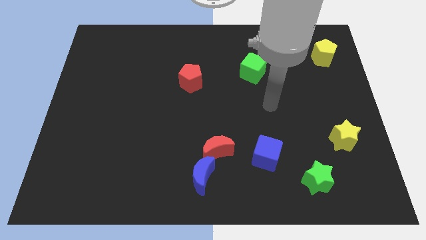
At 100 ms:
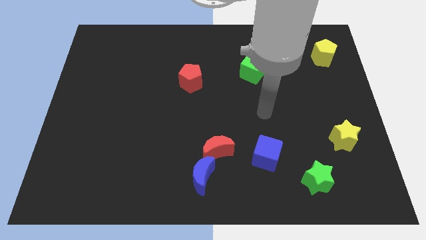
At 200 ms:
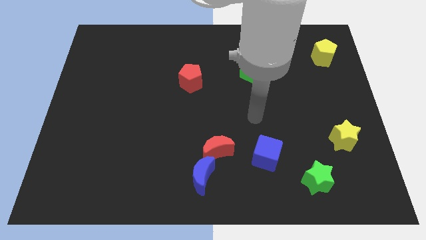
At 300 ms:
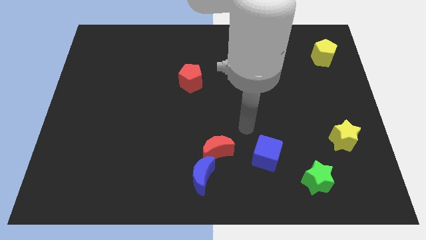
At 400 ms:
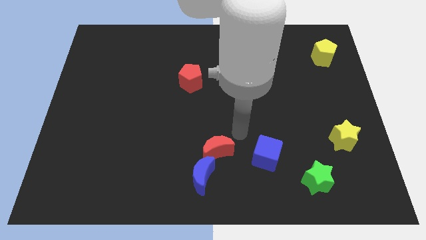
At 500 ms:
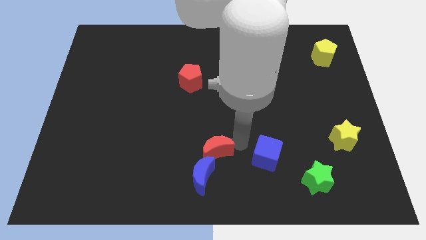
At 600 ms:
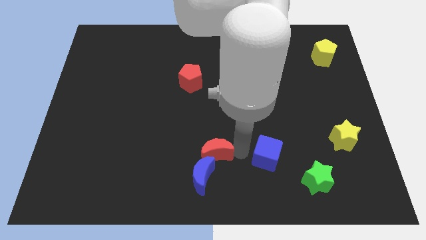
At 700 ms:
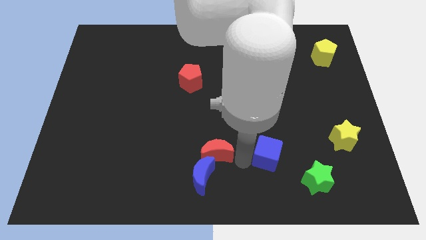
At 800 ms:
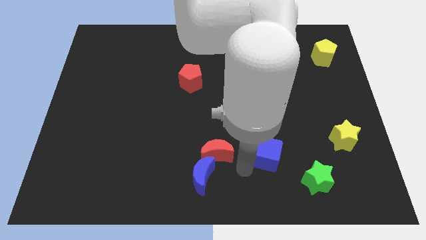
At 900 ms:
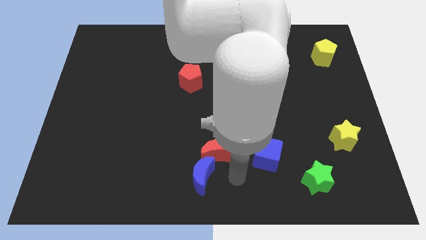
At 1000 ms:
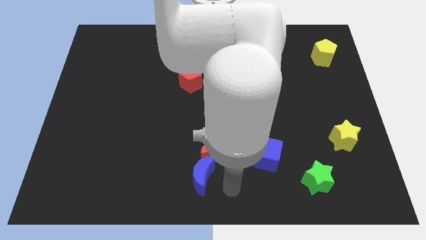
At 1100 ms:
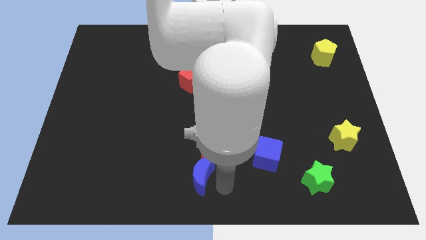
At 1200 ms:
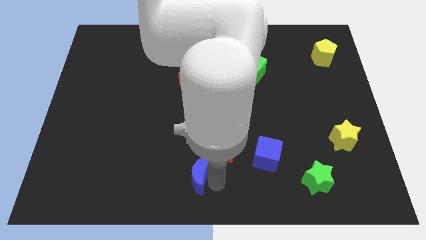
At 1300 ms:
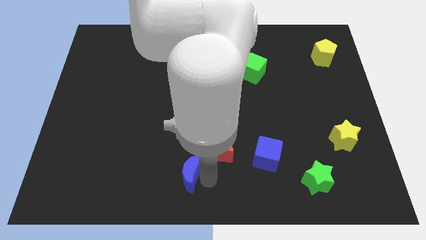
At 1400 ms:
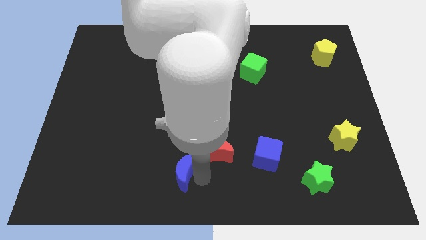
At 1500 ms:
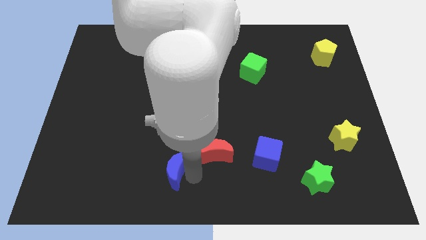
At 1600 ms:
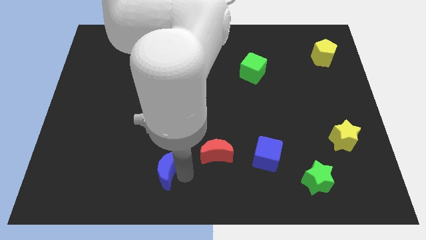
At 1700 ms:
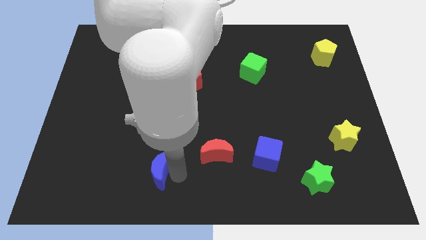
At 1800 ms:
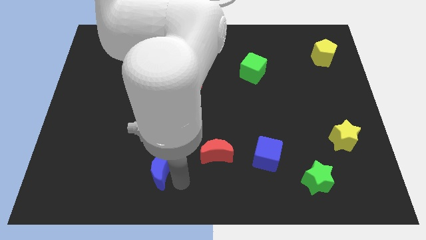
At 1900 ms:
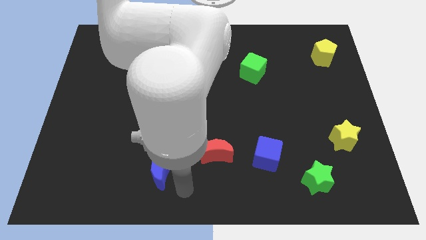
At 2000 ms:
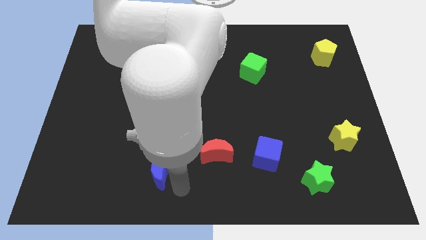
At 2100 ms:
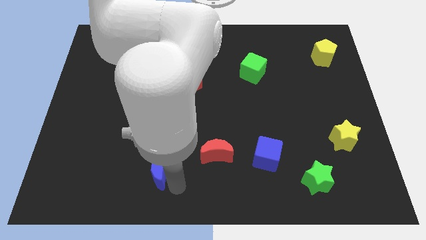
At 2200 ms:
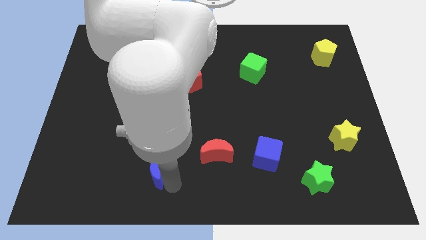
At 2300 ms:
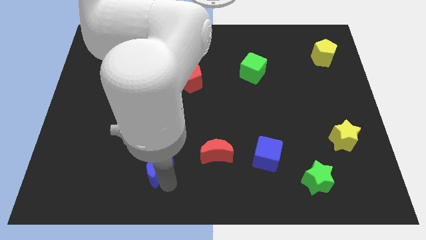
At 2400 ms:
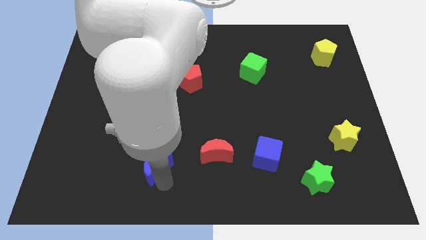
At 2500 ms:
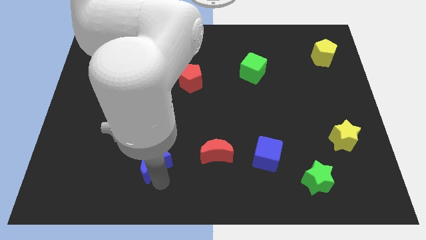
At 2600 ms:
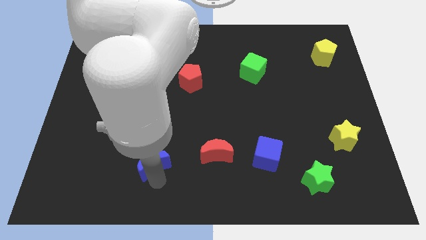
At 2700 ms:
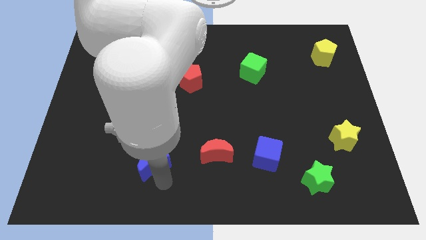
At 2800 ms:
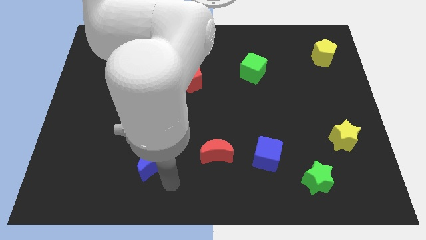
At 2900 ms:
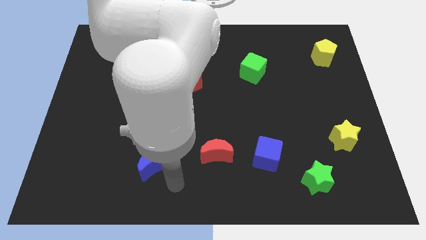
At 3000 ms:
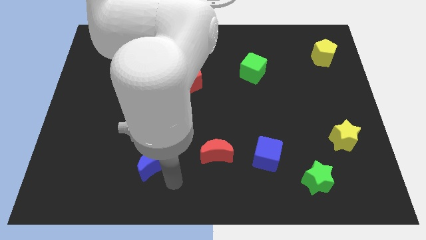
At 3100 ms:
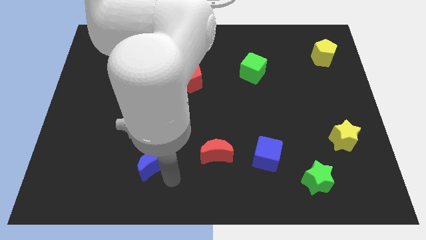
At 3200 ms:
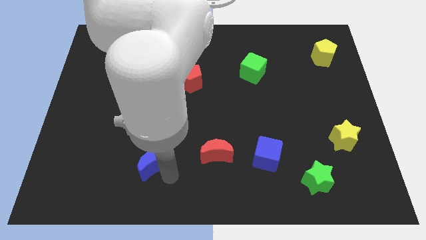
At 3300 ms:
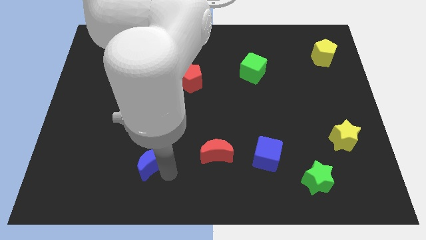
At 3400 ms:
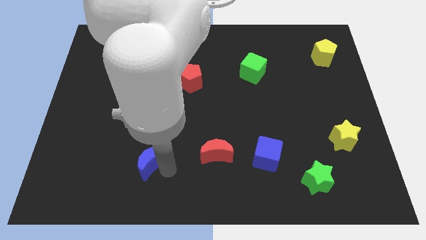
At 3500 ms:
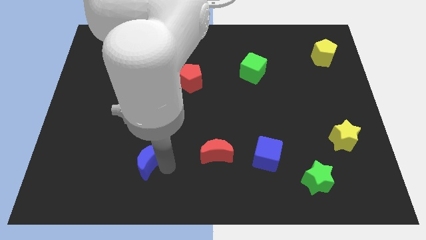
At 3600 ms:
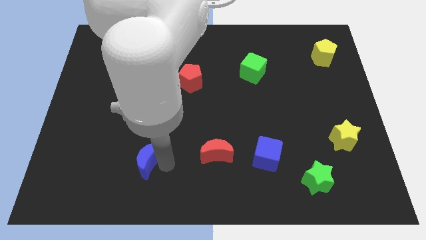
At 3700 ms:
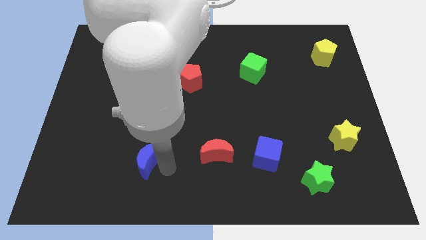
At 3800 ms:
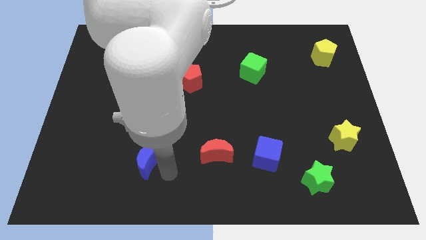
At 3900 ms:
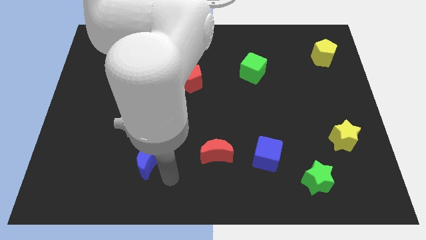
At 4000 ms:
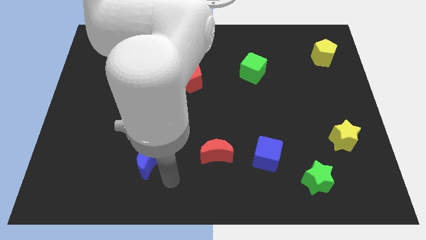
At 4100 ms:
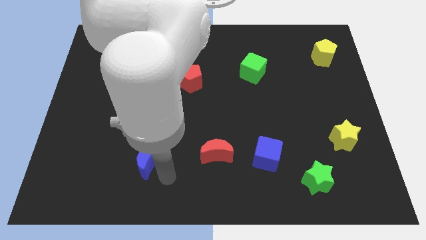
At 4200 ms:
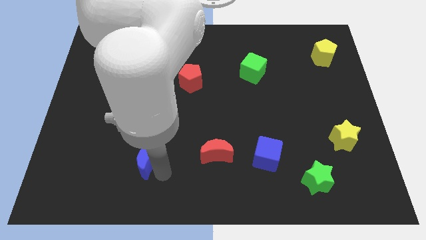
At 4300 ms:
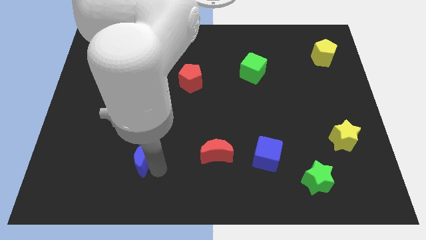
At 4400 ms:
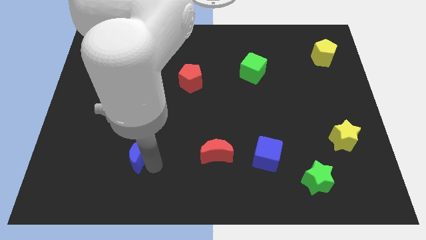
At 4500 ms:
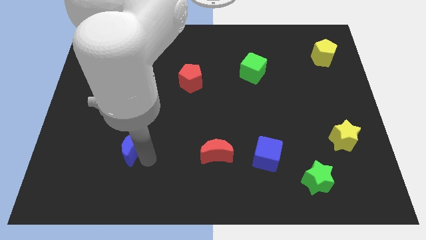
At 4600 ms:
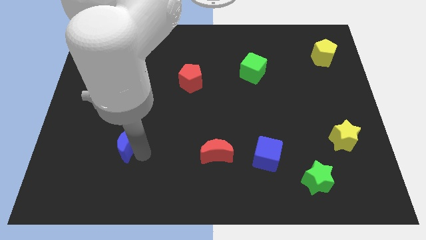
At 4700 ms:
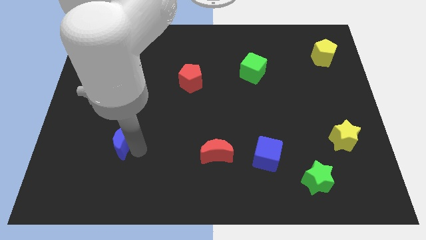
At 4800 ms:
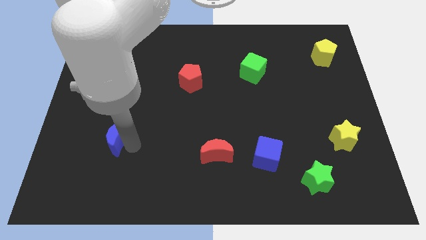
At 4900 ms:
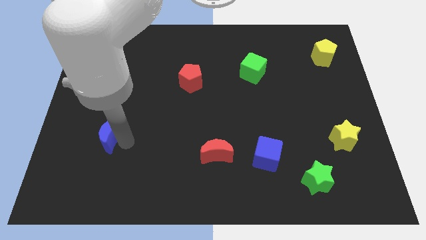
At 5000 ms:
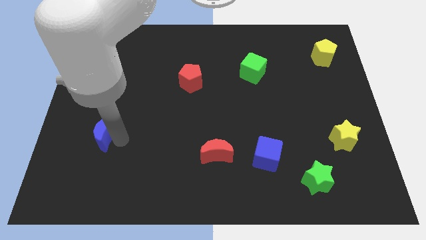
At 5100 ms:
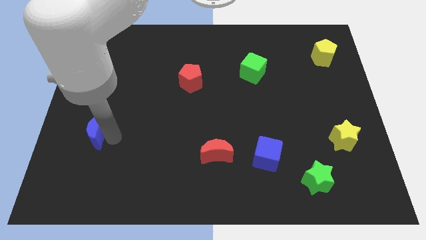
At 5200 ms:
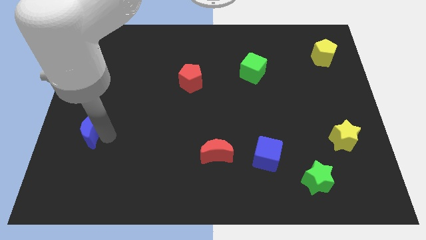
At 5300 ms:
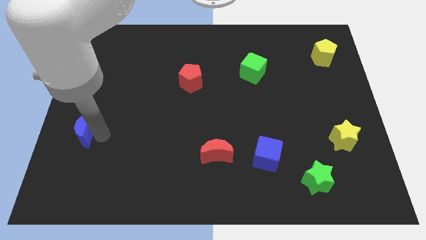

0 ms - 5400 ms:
push the blue moon to the left side

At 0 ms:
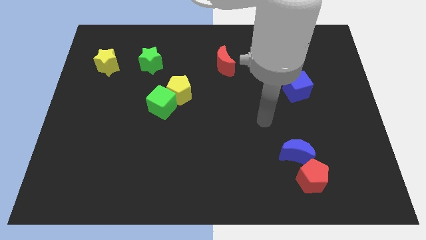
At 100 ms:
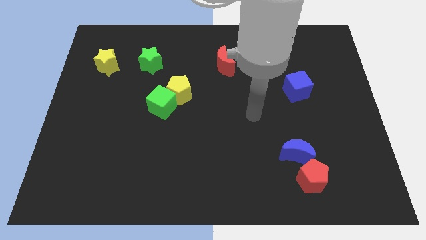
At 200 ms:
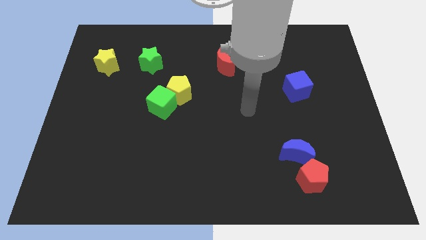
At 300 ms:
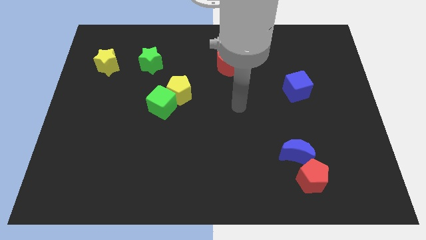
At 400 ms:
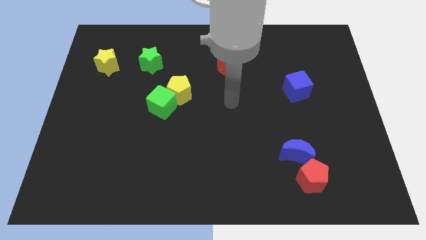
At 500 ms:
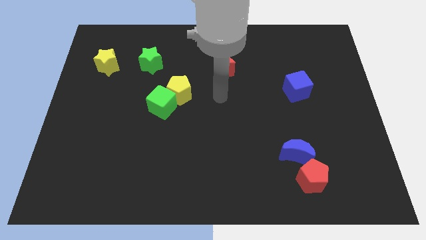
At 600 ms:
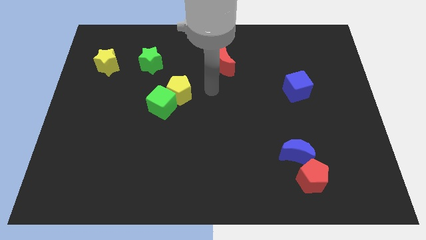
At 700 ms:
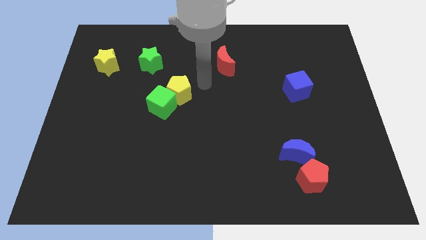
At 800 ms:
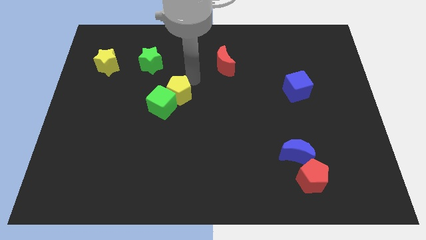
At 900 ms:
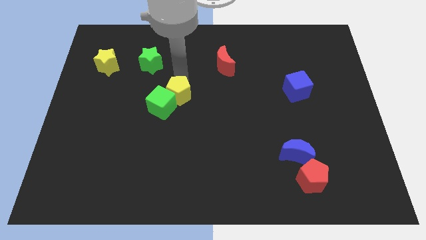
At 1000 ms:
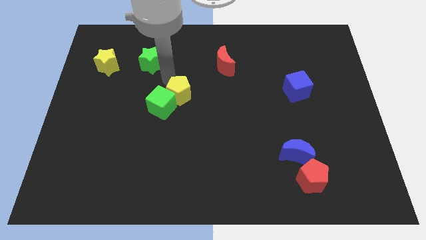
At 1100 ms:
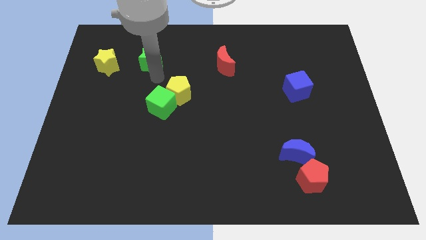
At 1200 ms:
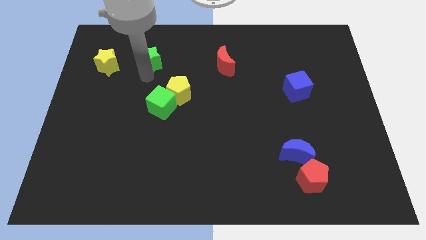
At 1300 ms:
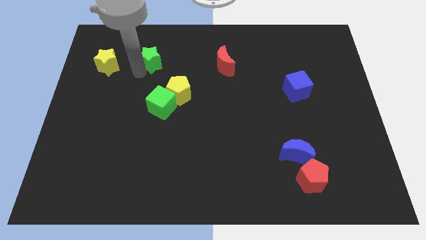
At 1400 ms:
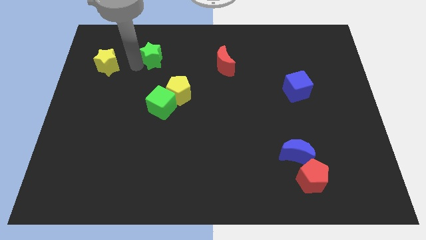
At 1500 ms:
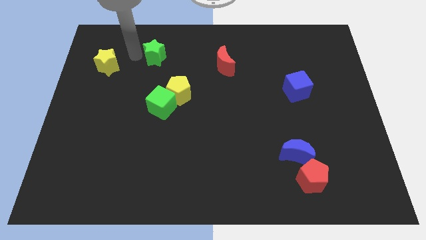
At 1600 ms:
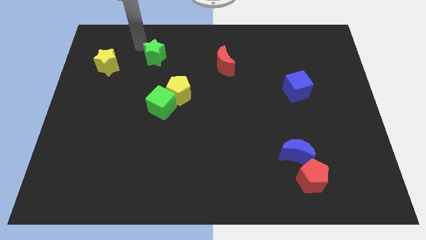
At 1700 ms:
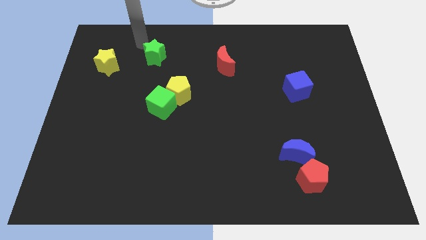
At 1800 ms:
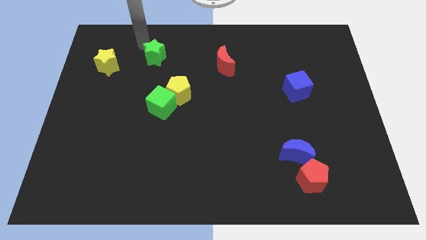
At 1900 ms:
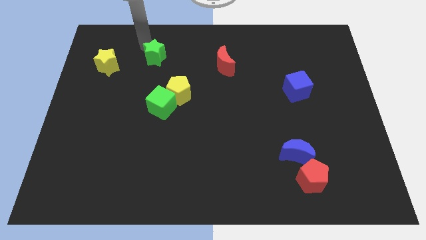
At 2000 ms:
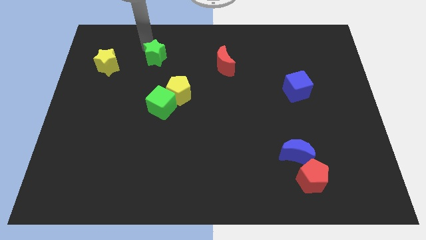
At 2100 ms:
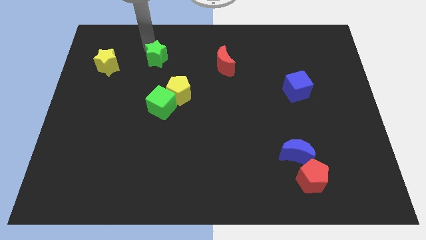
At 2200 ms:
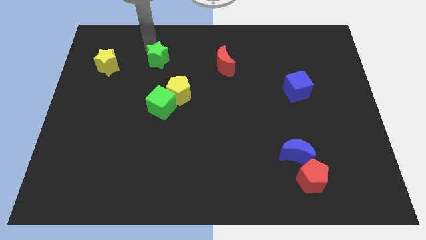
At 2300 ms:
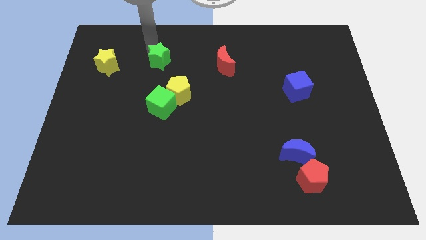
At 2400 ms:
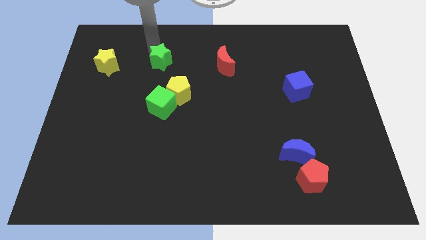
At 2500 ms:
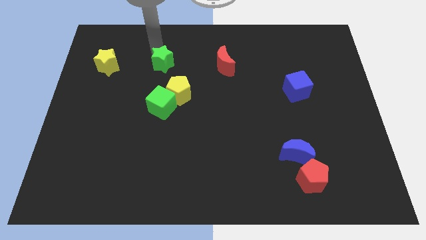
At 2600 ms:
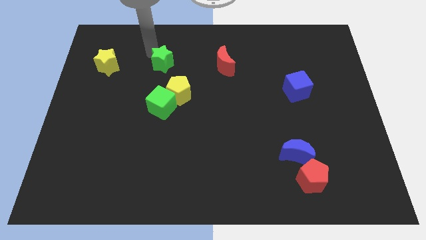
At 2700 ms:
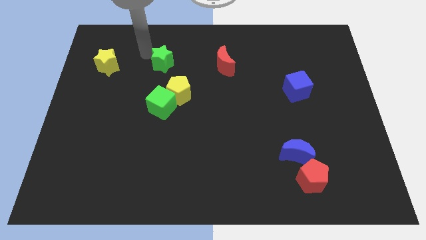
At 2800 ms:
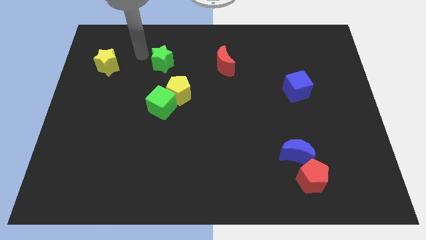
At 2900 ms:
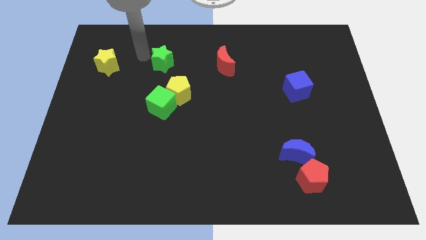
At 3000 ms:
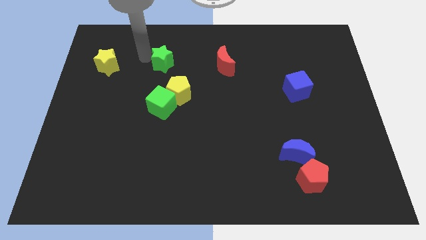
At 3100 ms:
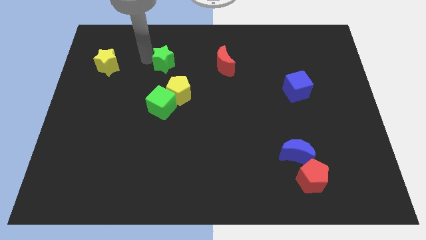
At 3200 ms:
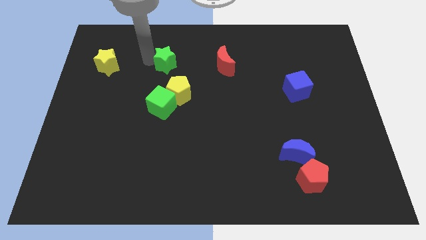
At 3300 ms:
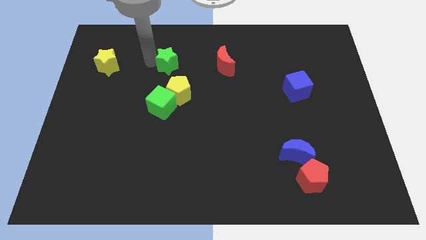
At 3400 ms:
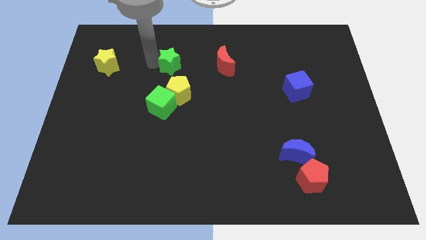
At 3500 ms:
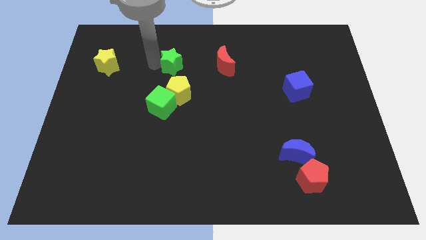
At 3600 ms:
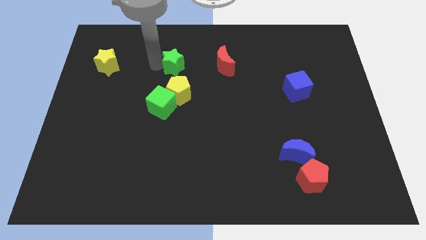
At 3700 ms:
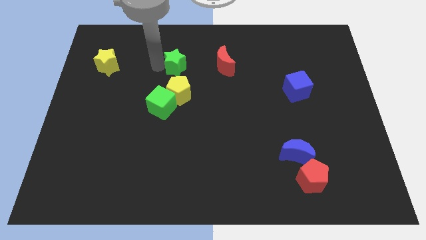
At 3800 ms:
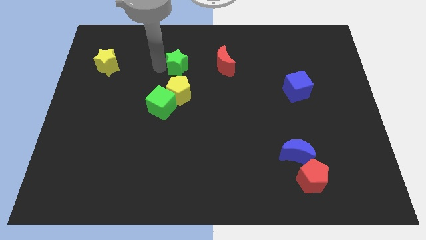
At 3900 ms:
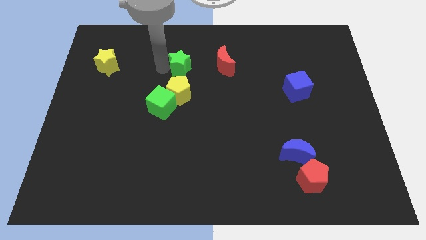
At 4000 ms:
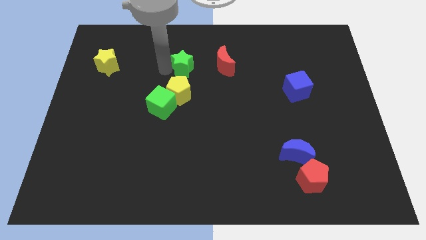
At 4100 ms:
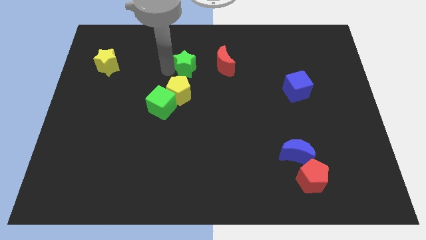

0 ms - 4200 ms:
slide the green star to the middle
